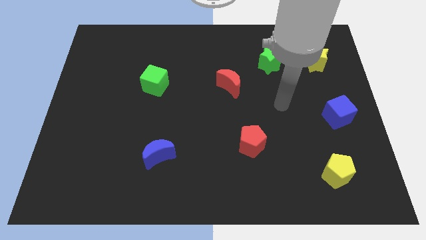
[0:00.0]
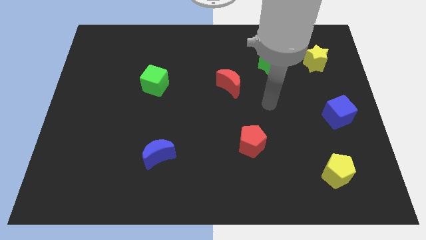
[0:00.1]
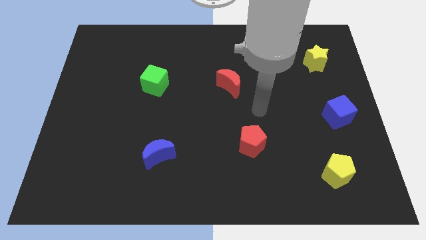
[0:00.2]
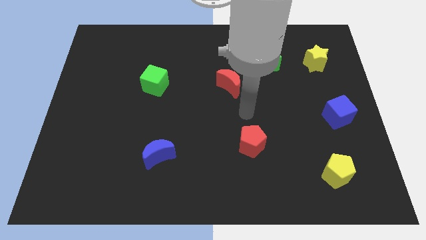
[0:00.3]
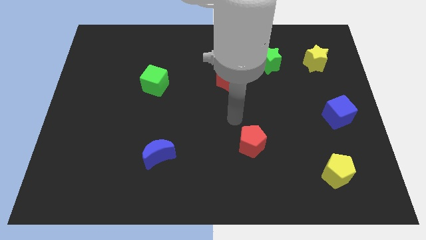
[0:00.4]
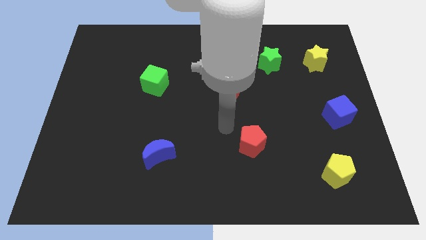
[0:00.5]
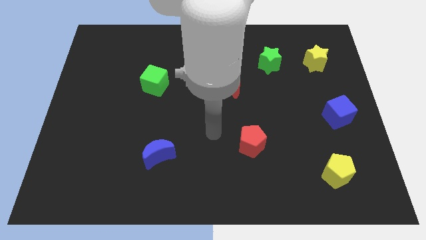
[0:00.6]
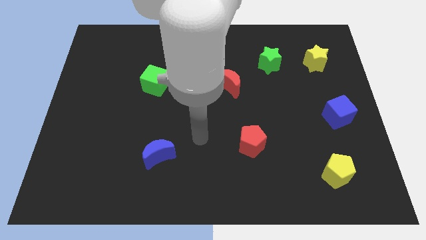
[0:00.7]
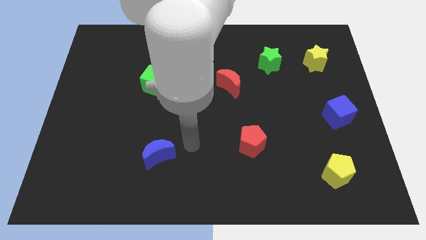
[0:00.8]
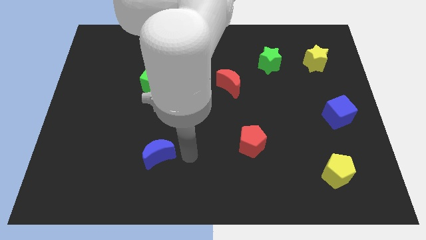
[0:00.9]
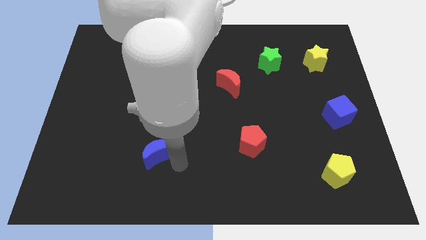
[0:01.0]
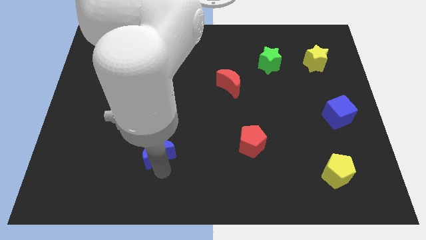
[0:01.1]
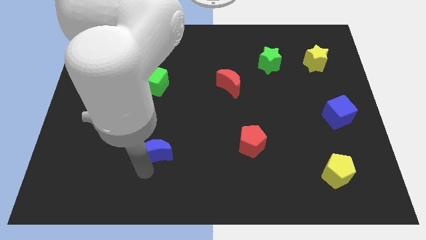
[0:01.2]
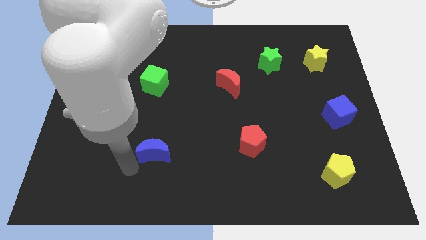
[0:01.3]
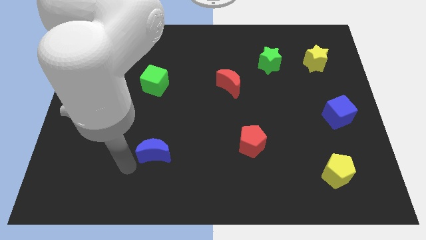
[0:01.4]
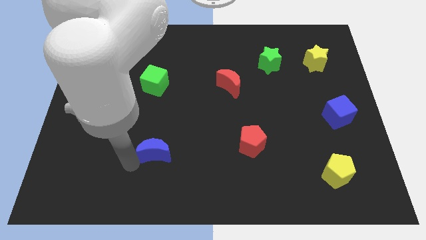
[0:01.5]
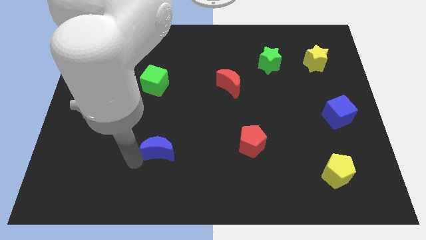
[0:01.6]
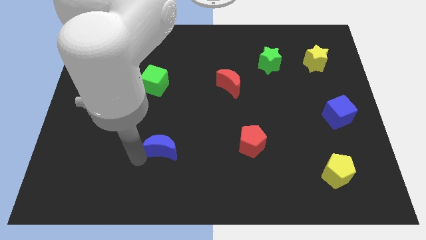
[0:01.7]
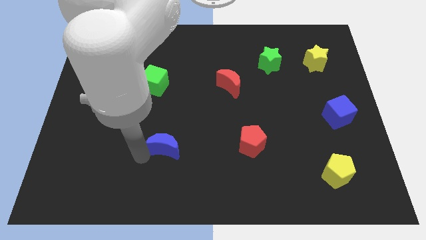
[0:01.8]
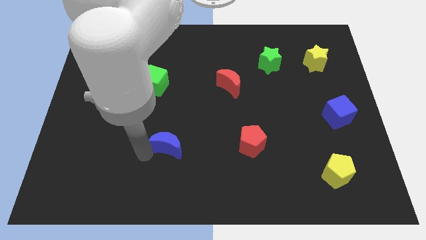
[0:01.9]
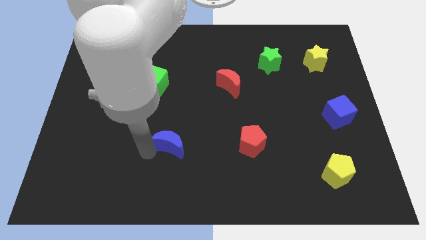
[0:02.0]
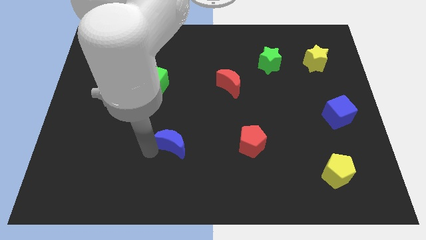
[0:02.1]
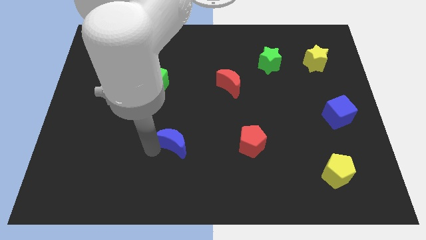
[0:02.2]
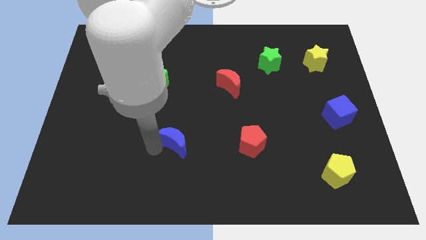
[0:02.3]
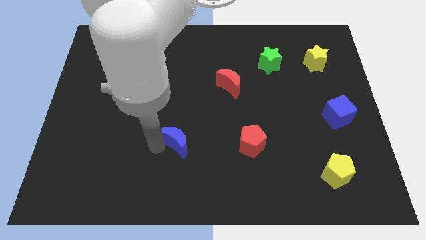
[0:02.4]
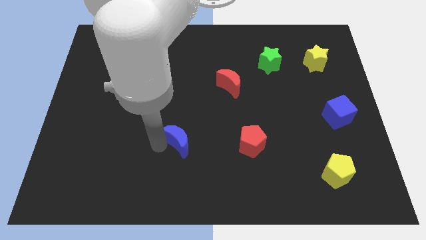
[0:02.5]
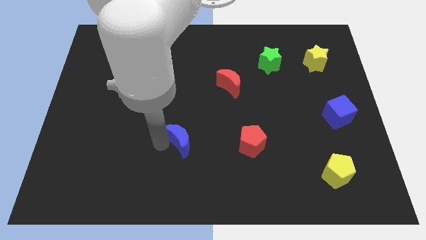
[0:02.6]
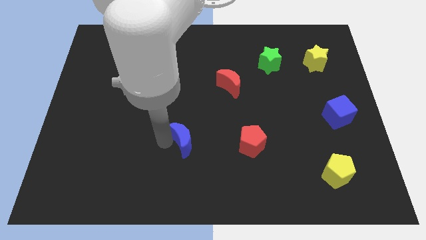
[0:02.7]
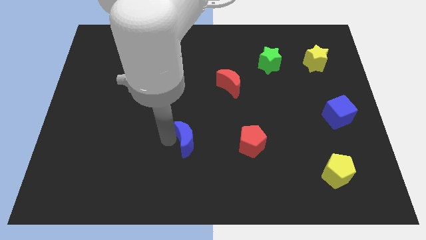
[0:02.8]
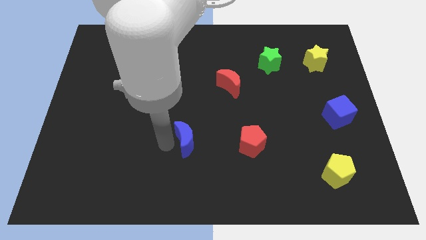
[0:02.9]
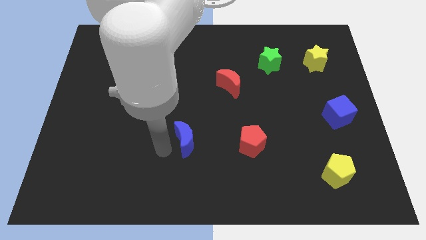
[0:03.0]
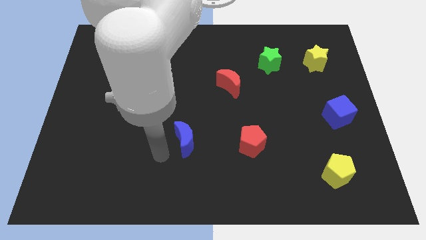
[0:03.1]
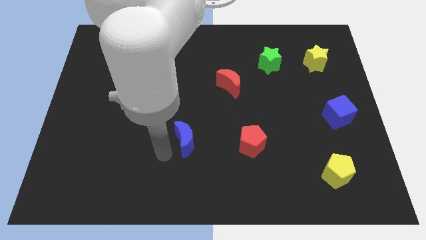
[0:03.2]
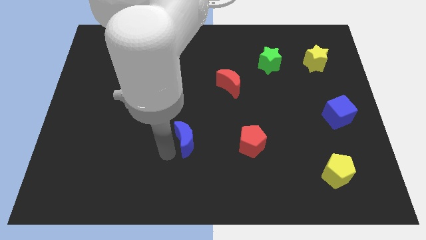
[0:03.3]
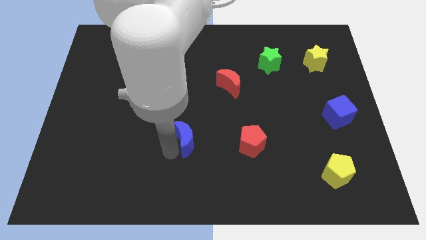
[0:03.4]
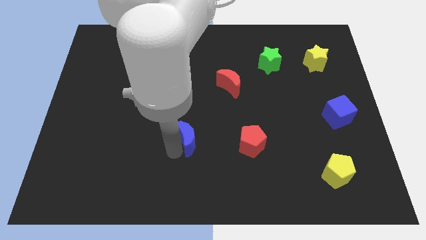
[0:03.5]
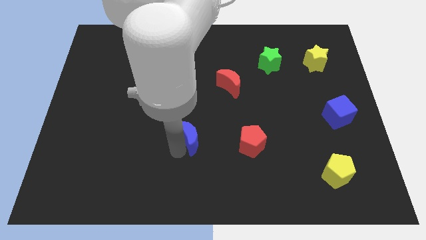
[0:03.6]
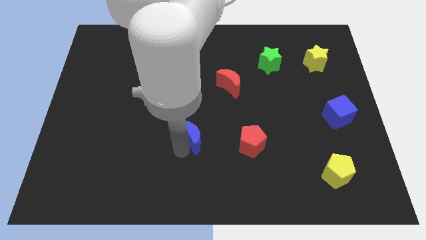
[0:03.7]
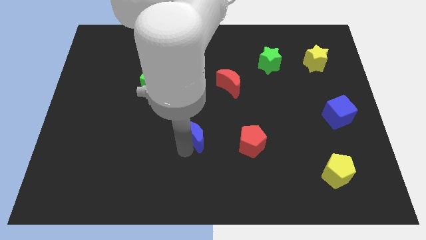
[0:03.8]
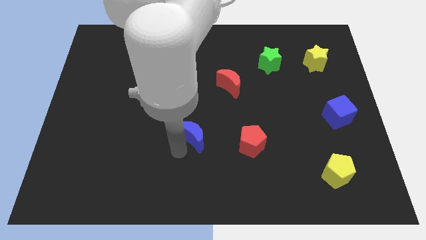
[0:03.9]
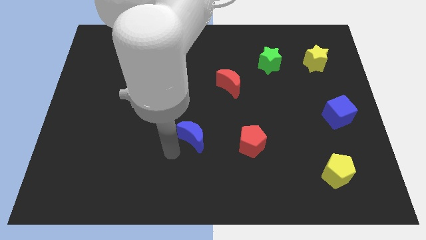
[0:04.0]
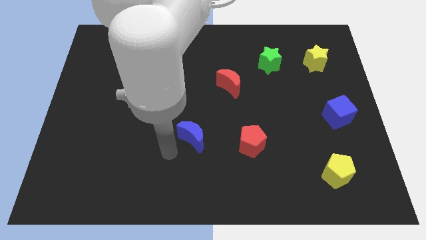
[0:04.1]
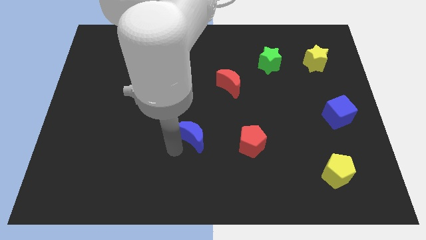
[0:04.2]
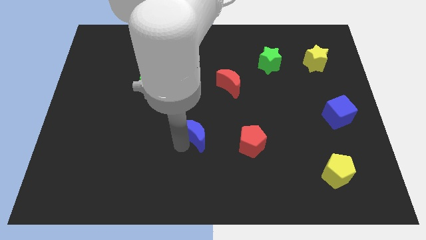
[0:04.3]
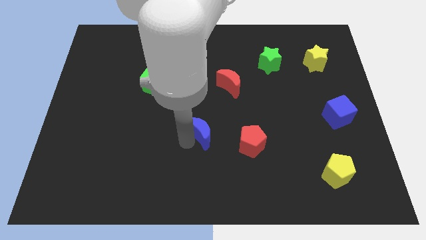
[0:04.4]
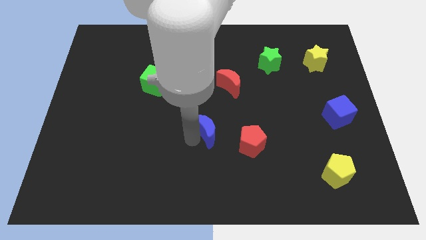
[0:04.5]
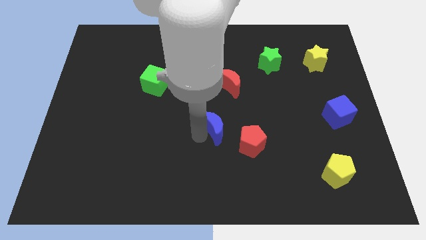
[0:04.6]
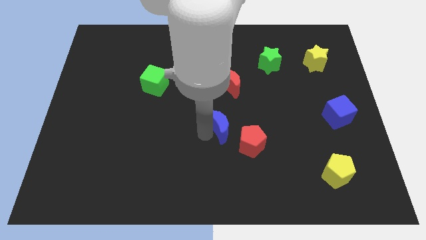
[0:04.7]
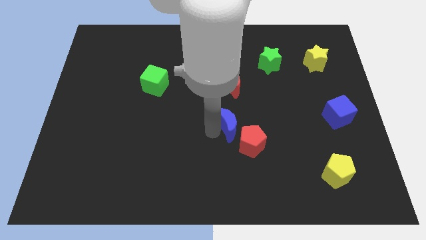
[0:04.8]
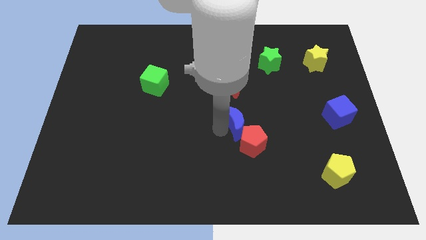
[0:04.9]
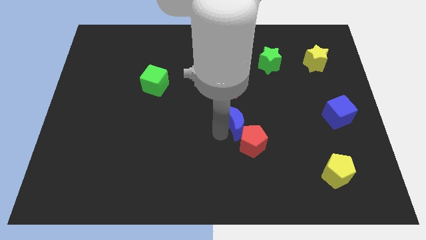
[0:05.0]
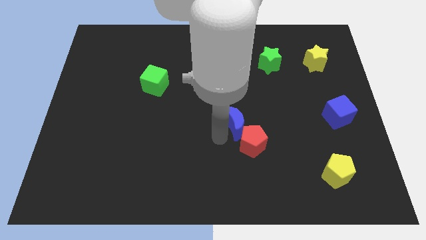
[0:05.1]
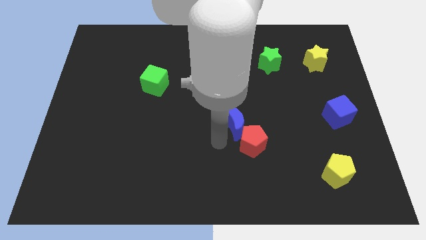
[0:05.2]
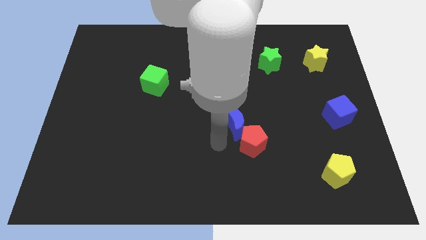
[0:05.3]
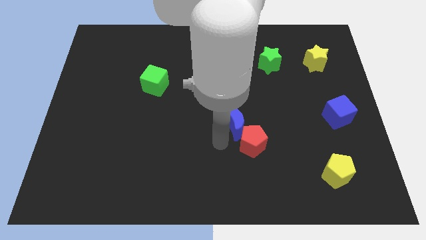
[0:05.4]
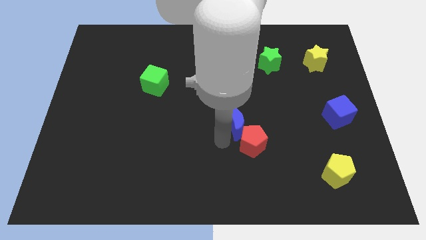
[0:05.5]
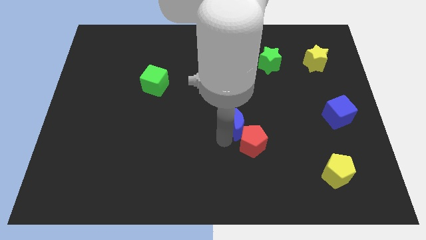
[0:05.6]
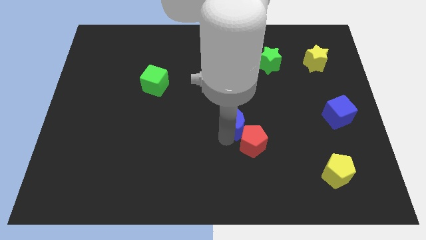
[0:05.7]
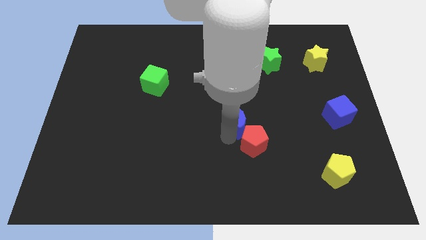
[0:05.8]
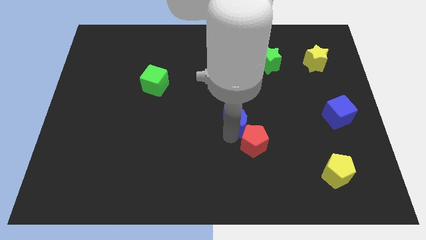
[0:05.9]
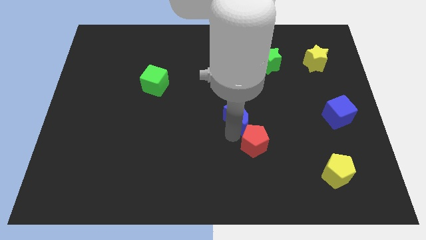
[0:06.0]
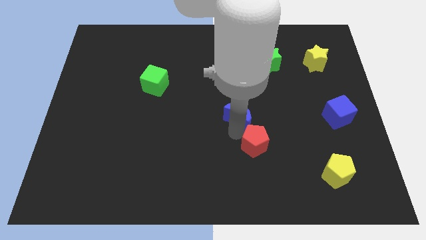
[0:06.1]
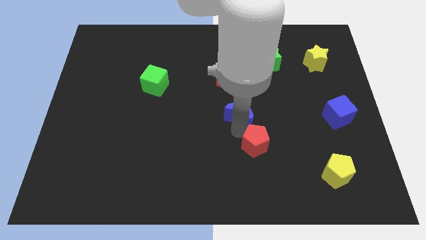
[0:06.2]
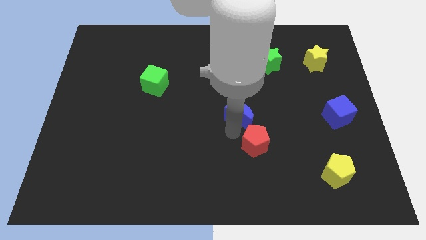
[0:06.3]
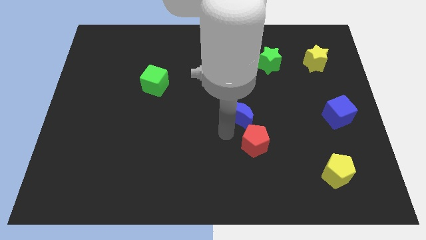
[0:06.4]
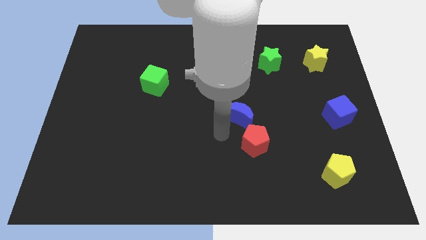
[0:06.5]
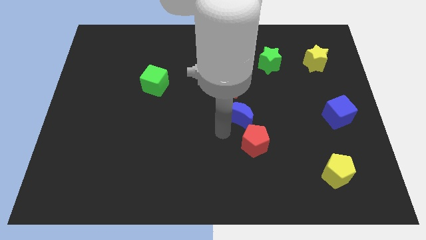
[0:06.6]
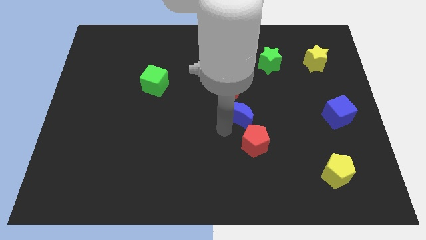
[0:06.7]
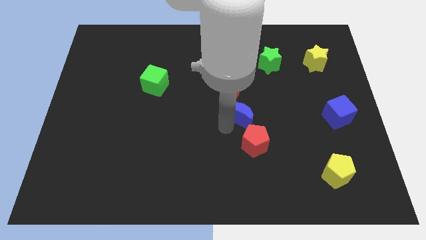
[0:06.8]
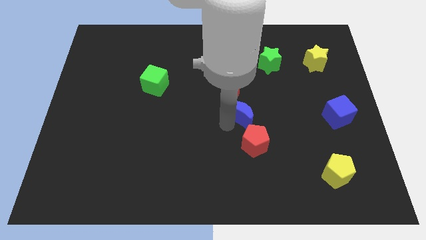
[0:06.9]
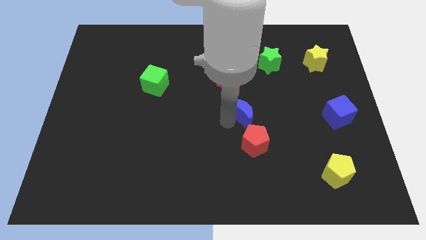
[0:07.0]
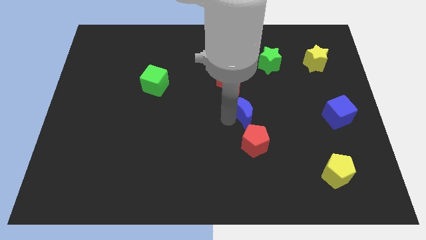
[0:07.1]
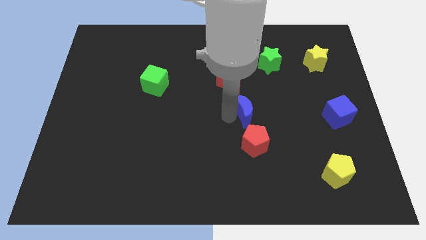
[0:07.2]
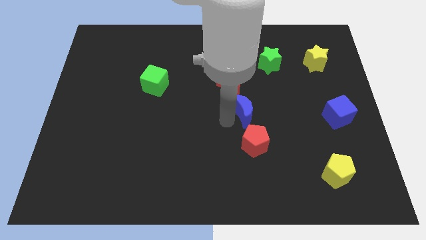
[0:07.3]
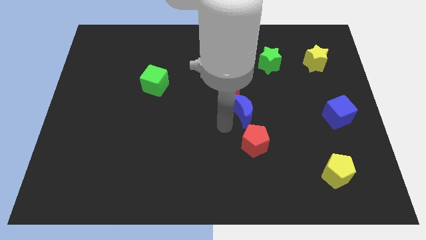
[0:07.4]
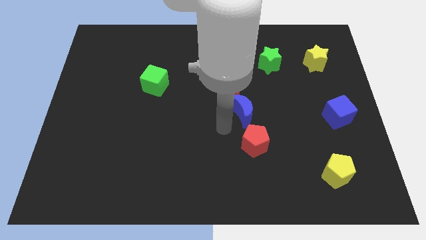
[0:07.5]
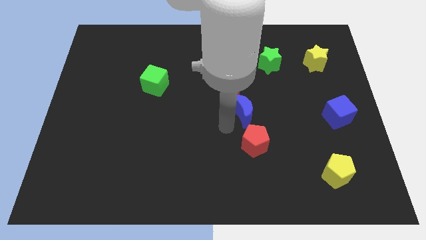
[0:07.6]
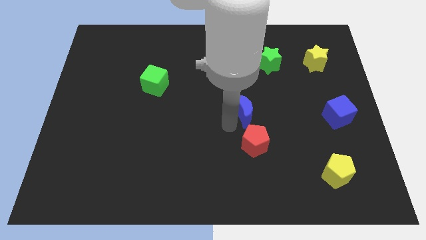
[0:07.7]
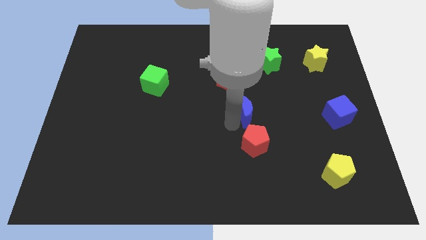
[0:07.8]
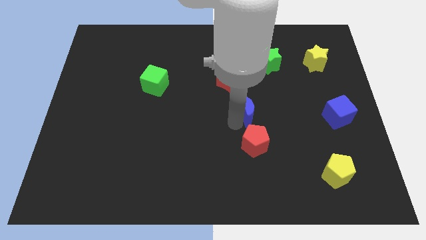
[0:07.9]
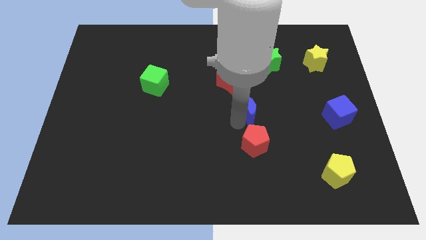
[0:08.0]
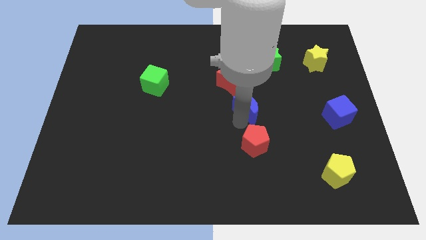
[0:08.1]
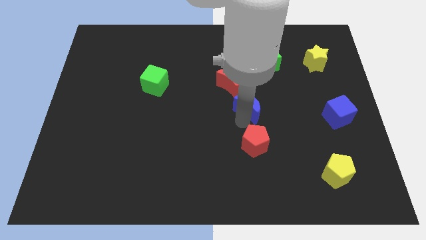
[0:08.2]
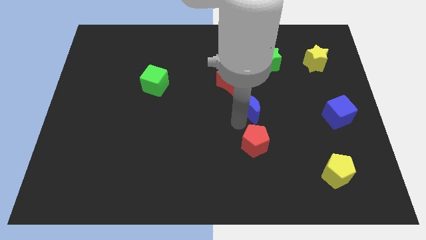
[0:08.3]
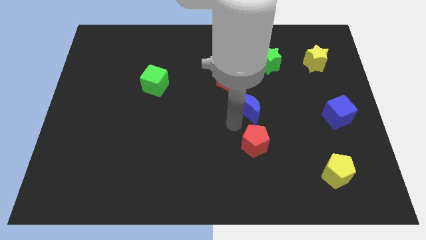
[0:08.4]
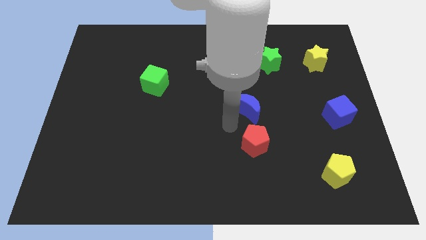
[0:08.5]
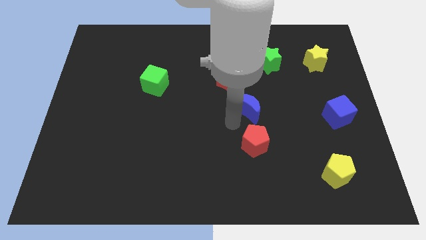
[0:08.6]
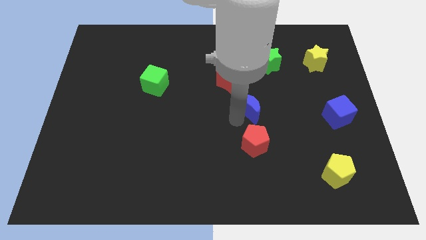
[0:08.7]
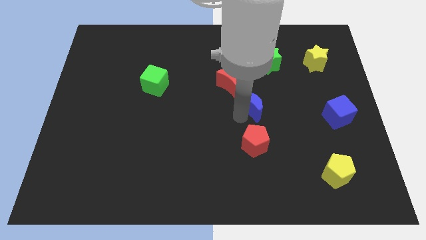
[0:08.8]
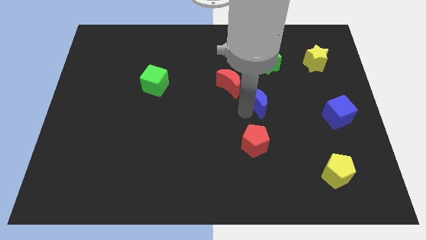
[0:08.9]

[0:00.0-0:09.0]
put the blue moon to the bottom of the green star
